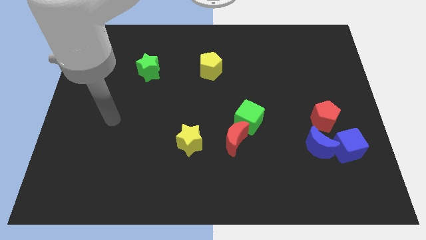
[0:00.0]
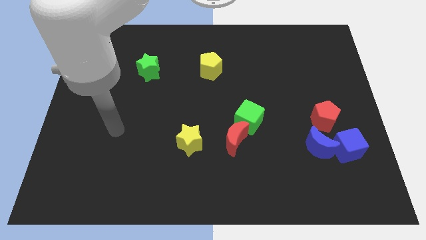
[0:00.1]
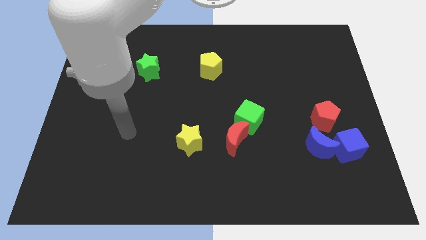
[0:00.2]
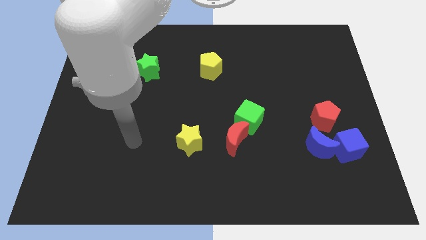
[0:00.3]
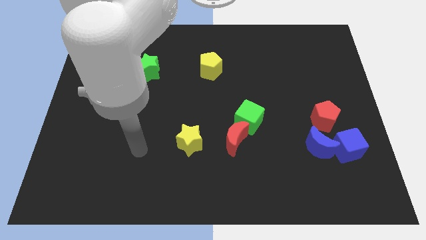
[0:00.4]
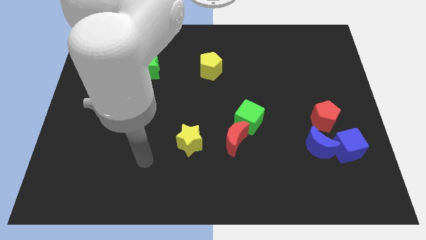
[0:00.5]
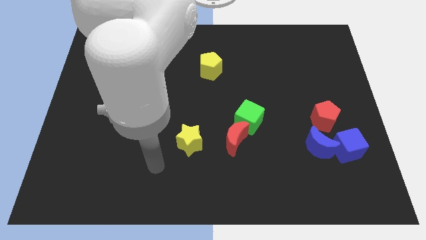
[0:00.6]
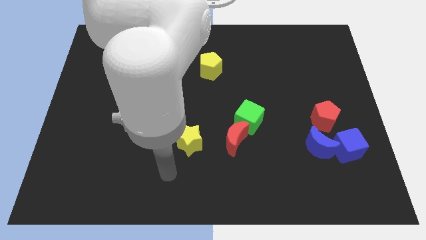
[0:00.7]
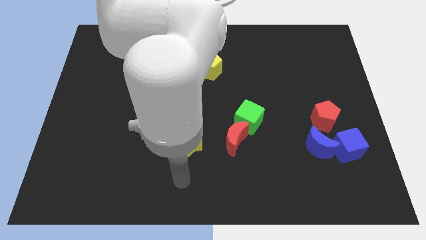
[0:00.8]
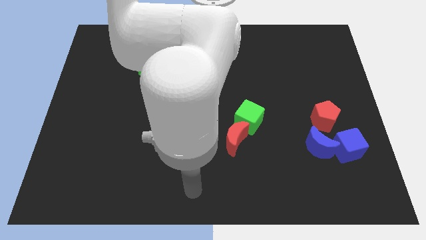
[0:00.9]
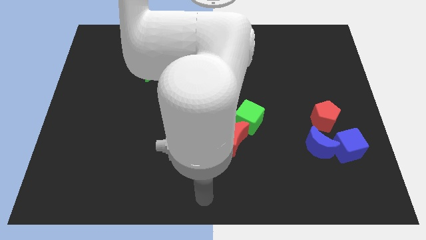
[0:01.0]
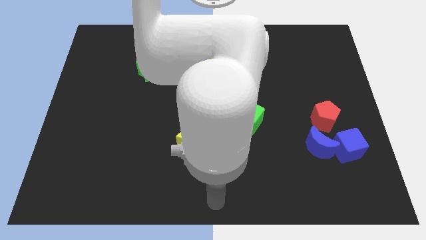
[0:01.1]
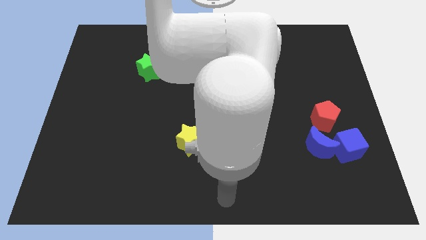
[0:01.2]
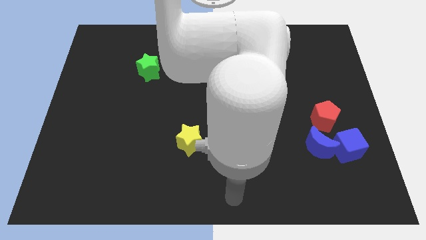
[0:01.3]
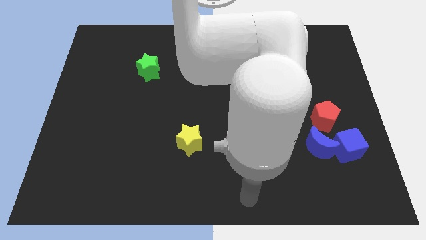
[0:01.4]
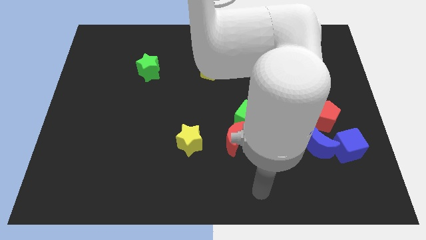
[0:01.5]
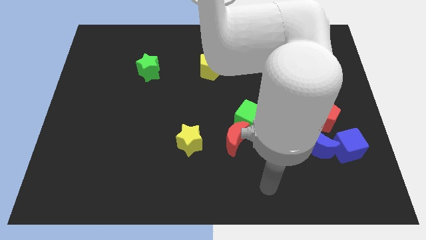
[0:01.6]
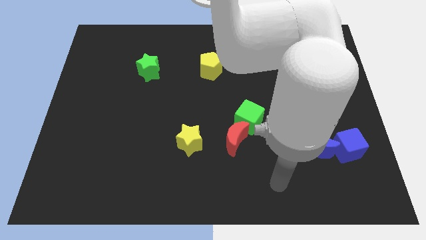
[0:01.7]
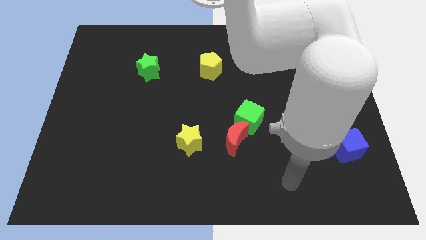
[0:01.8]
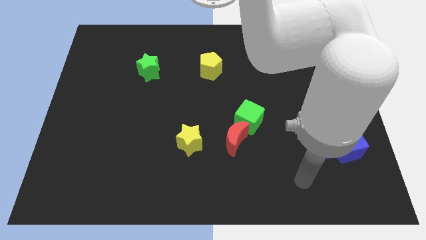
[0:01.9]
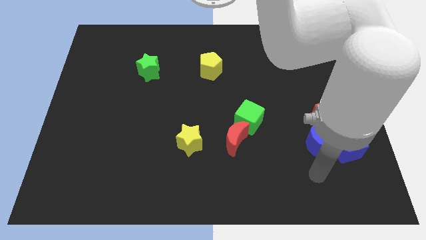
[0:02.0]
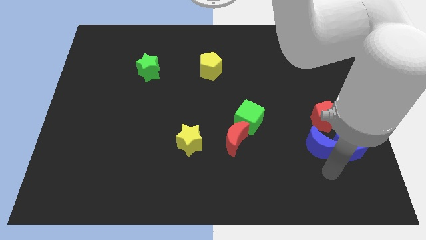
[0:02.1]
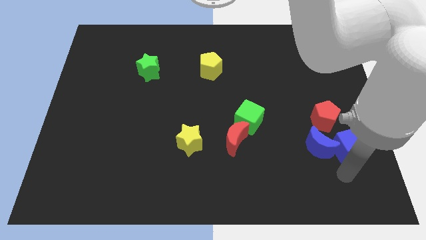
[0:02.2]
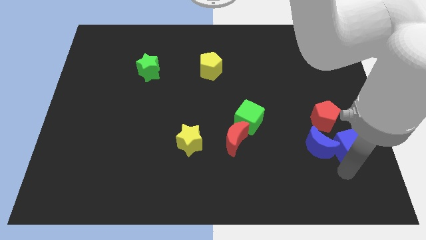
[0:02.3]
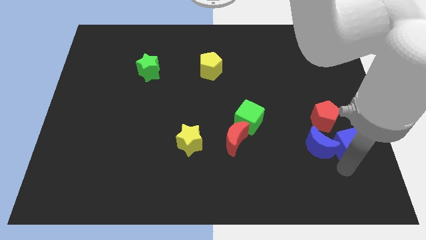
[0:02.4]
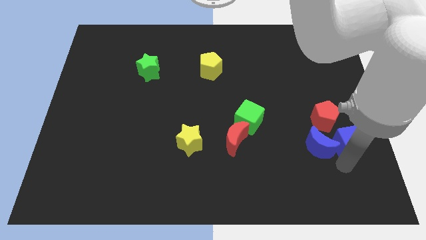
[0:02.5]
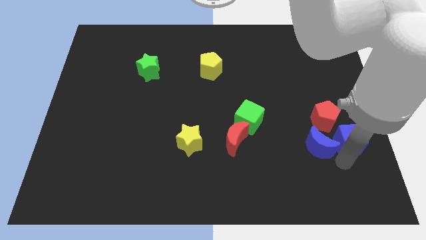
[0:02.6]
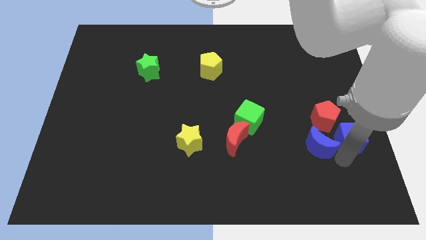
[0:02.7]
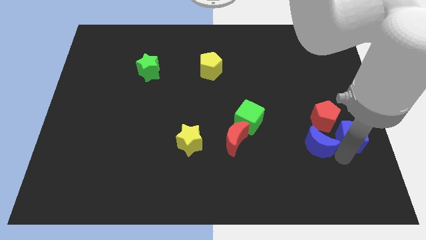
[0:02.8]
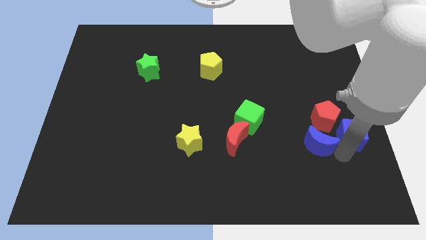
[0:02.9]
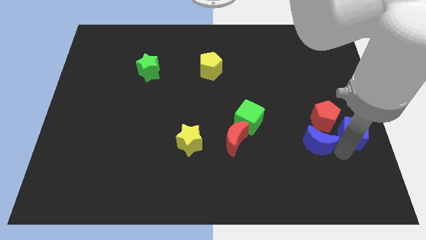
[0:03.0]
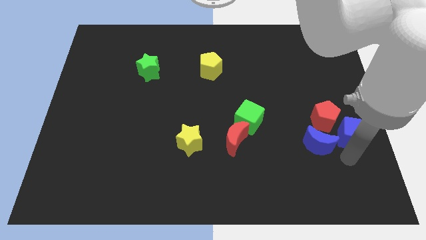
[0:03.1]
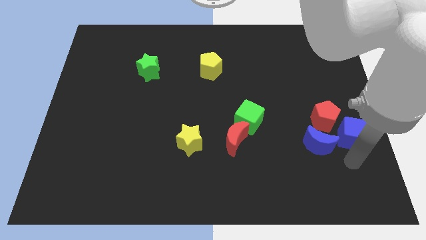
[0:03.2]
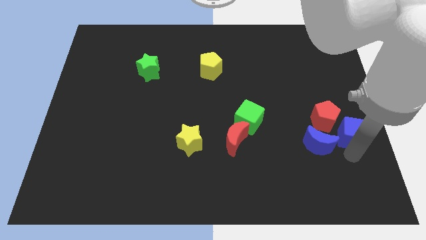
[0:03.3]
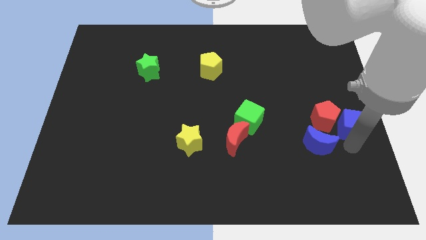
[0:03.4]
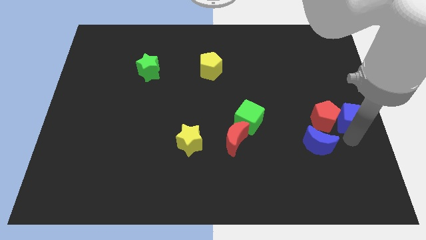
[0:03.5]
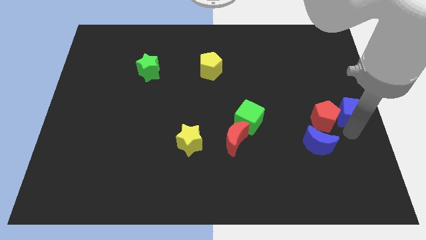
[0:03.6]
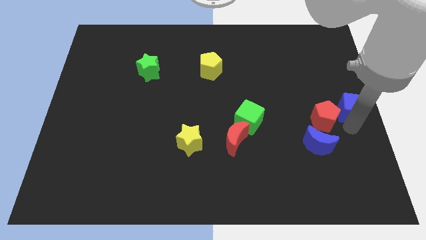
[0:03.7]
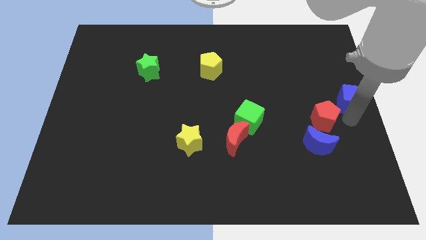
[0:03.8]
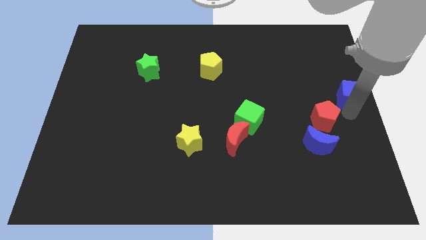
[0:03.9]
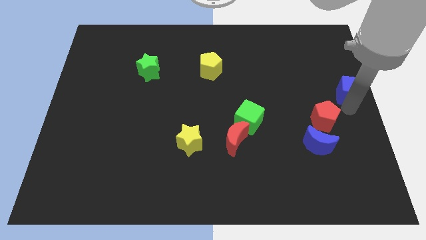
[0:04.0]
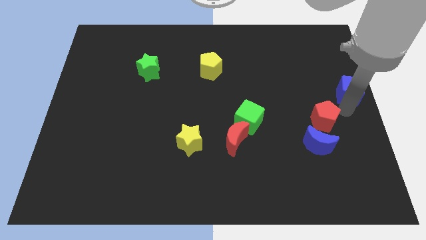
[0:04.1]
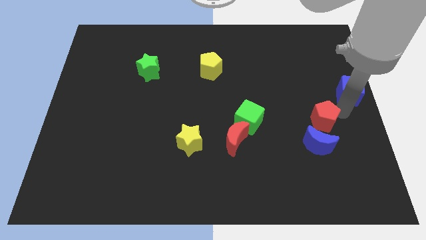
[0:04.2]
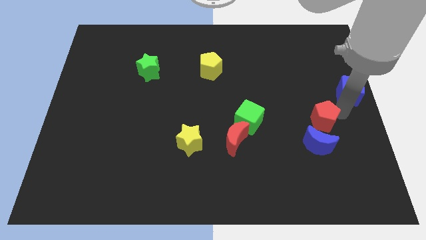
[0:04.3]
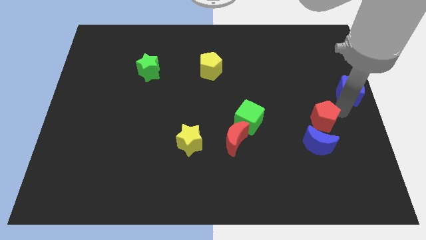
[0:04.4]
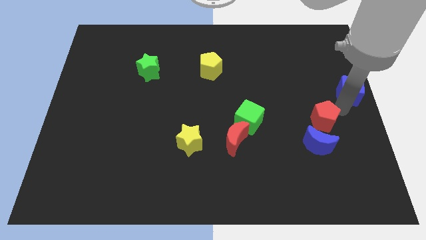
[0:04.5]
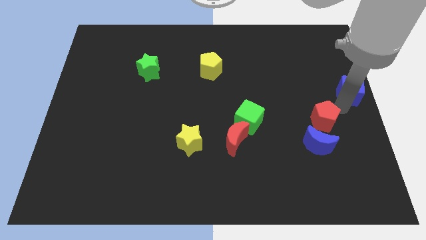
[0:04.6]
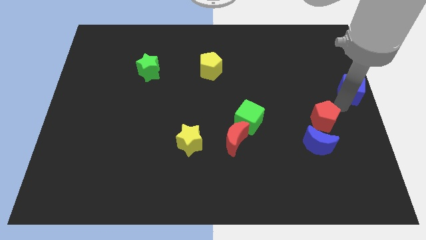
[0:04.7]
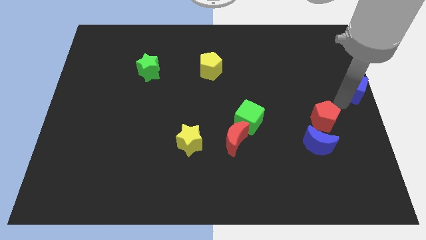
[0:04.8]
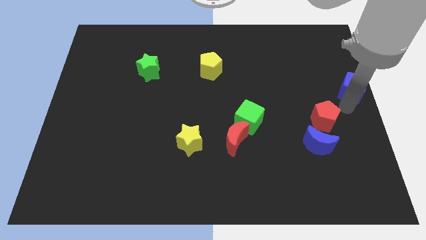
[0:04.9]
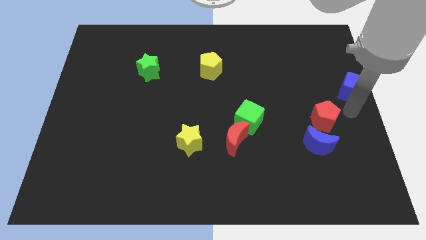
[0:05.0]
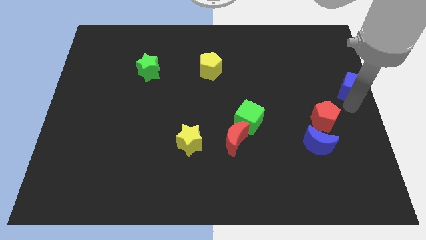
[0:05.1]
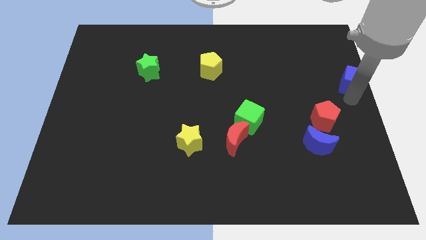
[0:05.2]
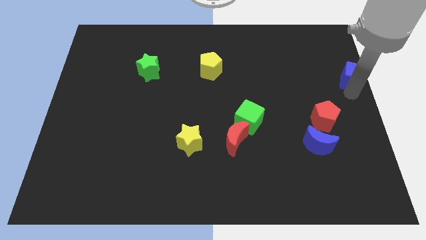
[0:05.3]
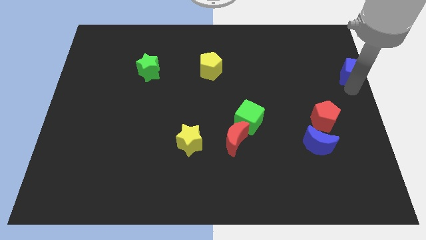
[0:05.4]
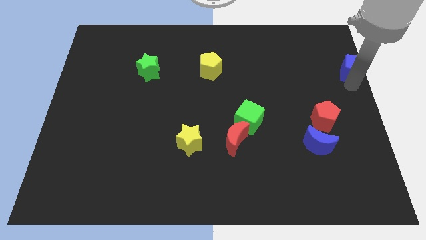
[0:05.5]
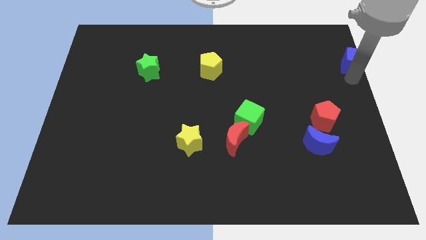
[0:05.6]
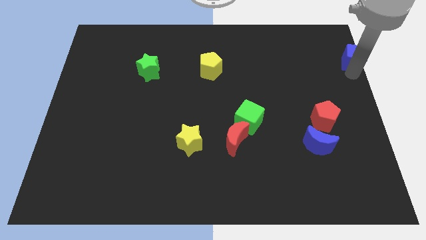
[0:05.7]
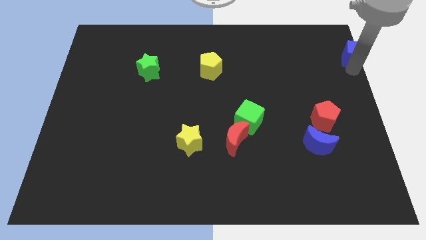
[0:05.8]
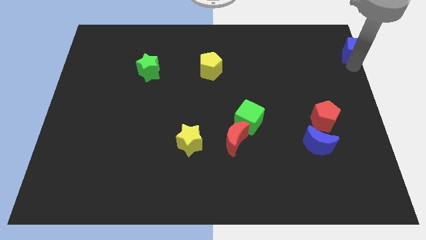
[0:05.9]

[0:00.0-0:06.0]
push the blue cube to the top right of the board

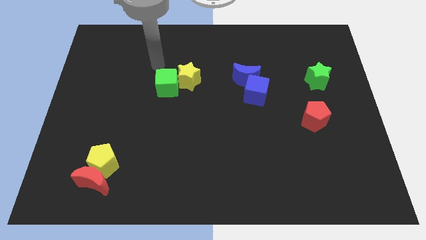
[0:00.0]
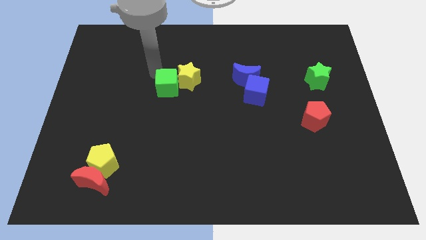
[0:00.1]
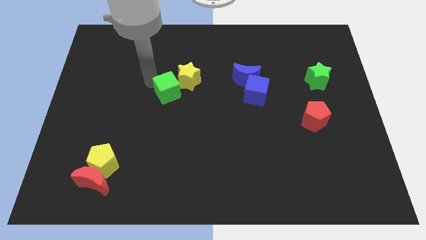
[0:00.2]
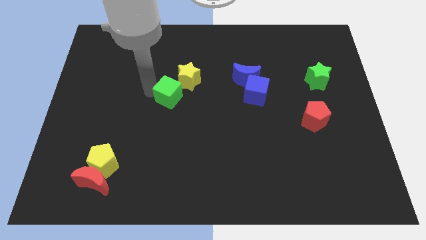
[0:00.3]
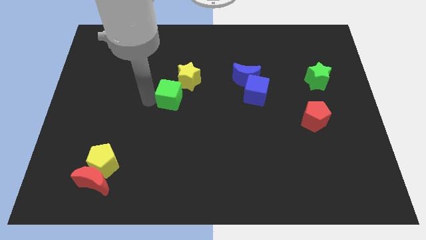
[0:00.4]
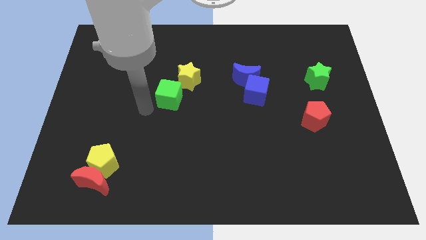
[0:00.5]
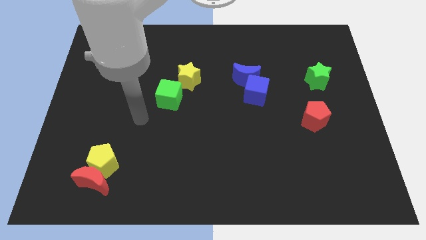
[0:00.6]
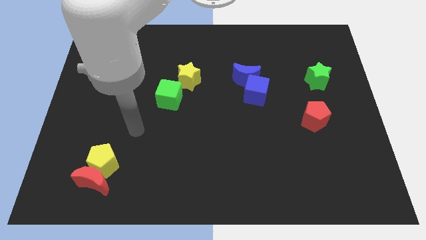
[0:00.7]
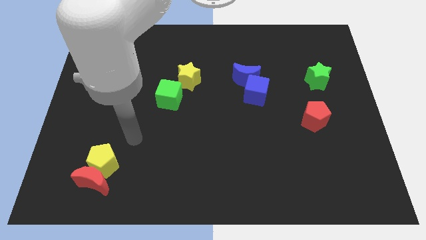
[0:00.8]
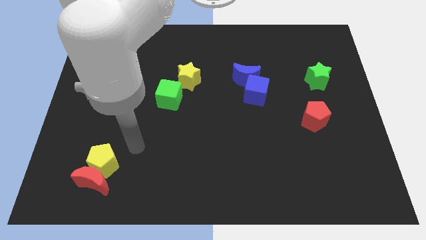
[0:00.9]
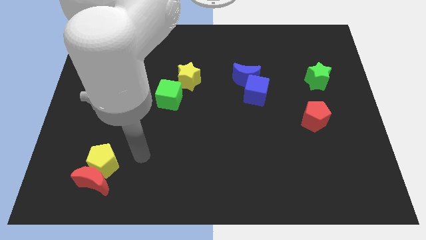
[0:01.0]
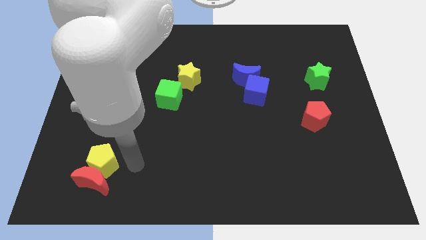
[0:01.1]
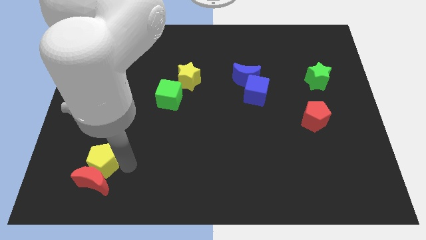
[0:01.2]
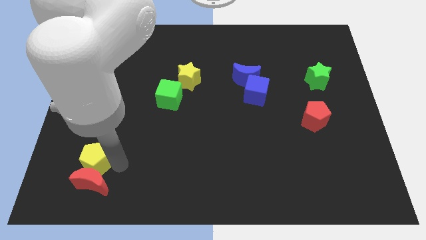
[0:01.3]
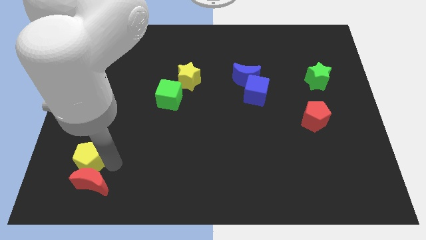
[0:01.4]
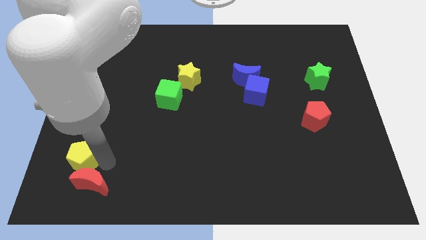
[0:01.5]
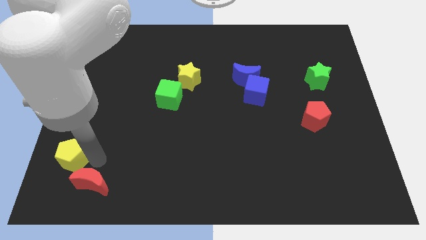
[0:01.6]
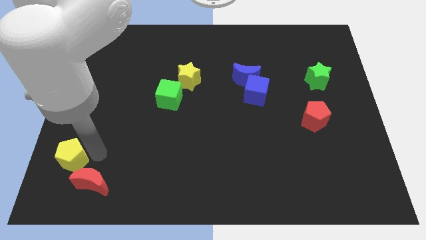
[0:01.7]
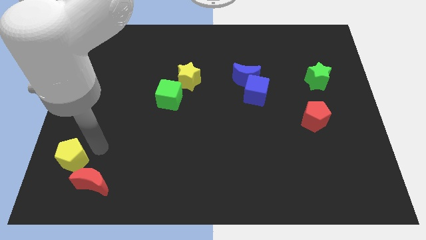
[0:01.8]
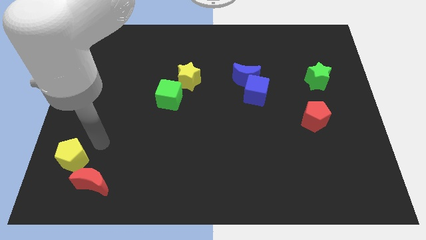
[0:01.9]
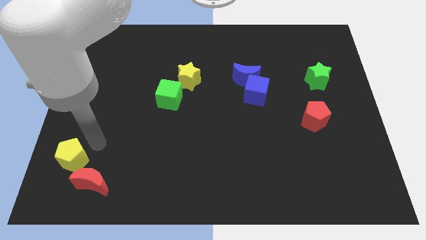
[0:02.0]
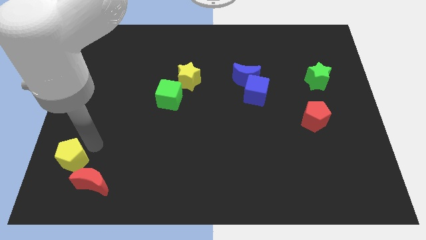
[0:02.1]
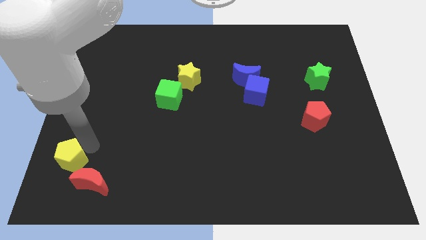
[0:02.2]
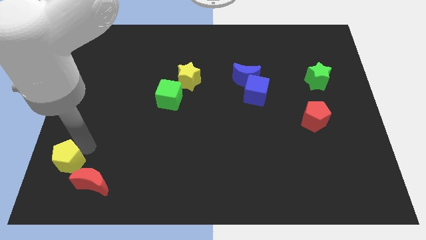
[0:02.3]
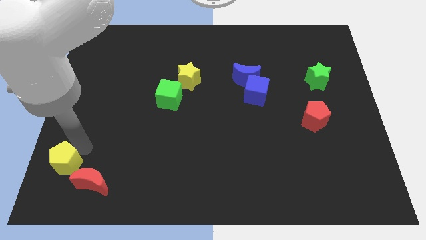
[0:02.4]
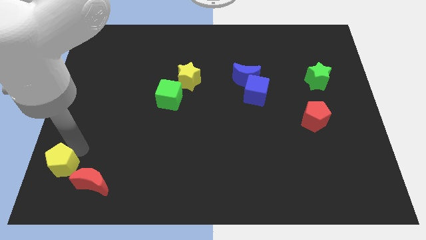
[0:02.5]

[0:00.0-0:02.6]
slide the yellow pentagon to the bottom left corner
